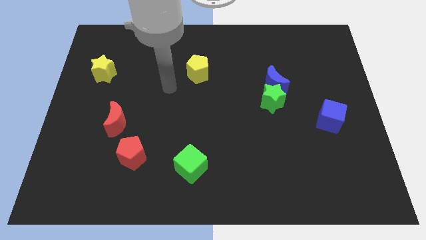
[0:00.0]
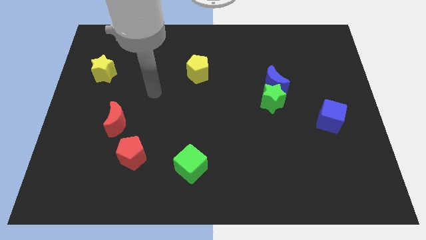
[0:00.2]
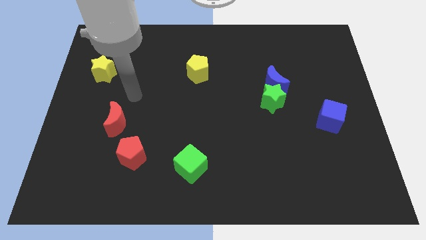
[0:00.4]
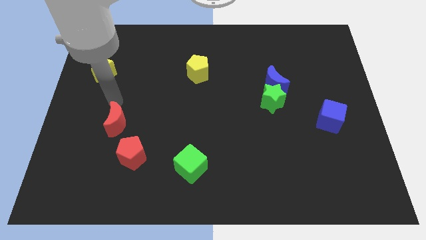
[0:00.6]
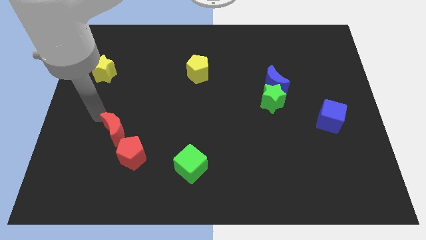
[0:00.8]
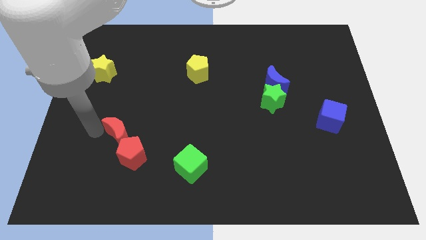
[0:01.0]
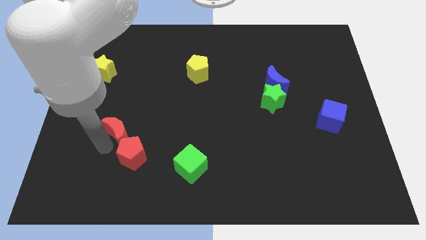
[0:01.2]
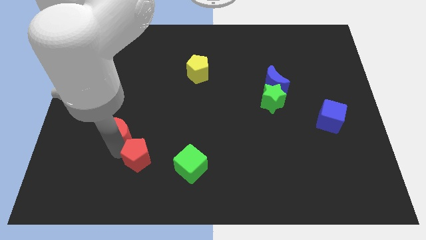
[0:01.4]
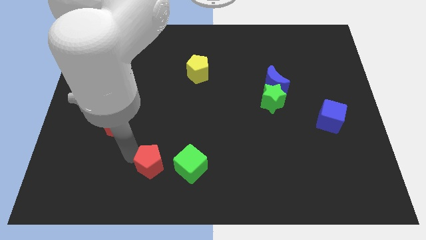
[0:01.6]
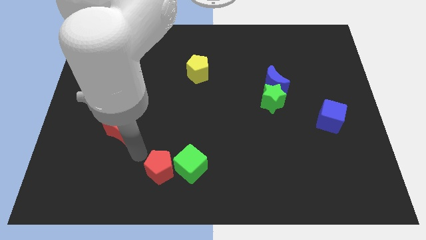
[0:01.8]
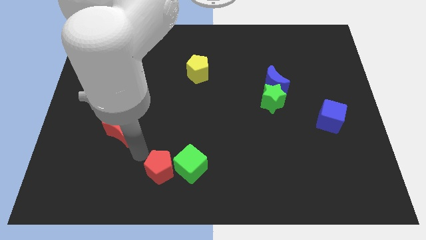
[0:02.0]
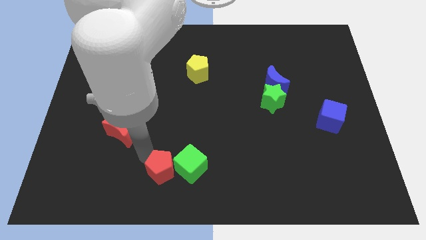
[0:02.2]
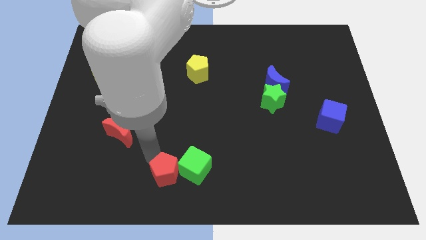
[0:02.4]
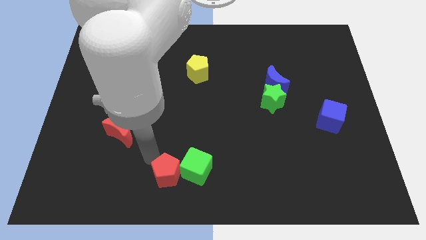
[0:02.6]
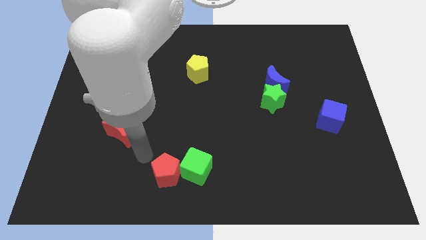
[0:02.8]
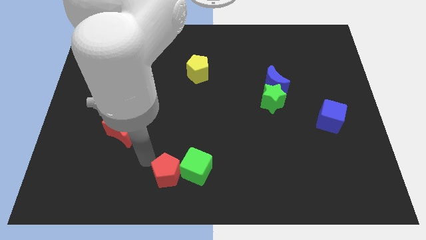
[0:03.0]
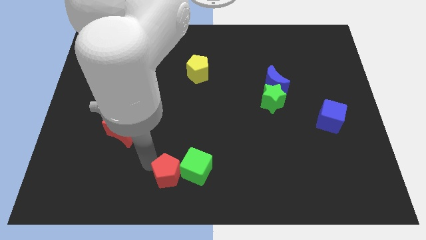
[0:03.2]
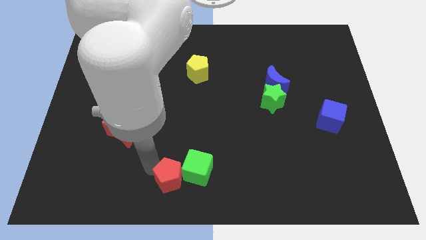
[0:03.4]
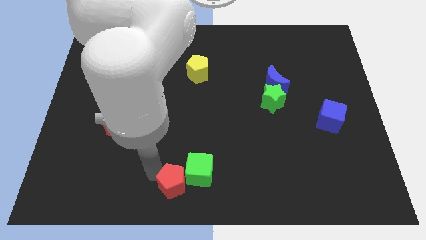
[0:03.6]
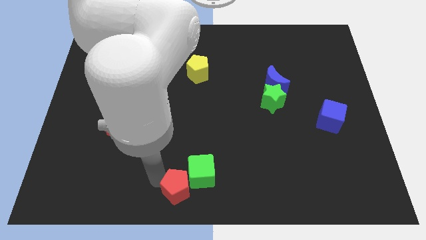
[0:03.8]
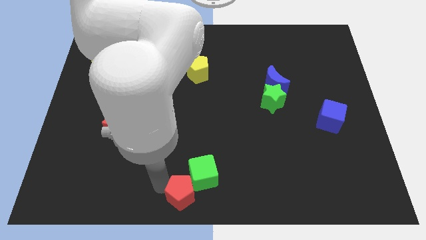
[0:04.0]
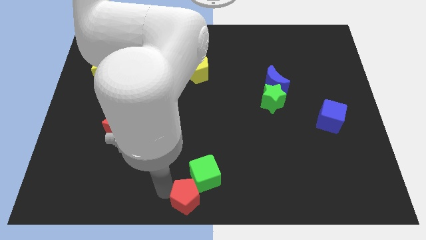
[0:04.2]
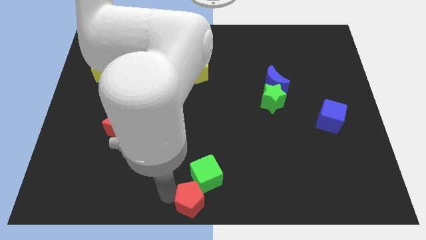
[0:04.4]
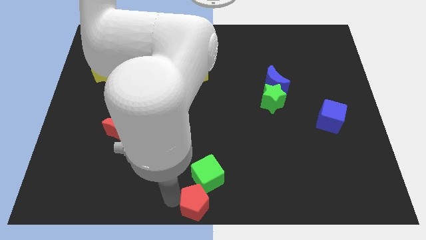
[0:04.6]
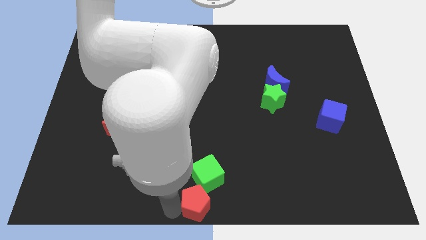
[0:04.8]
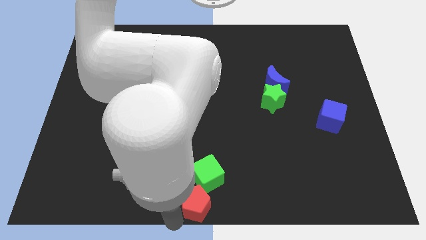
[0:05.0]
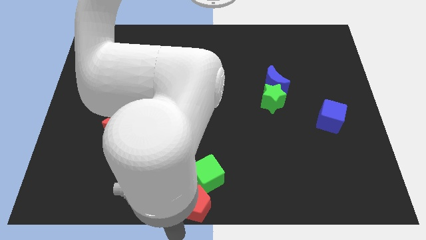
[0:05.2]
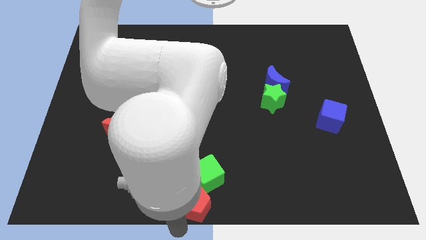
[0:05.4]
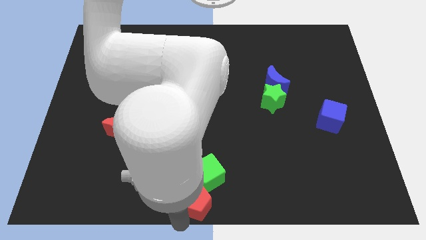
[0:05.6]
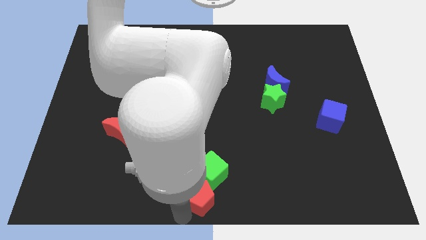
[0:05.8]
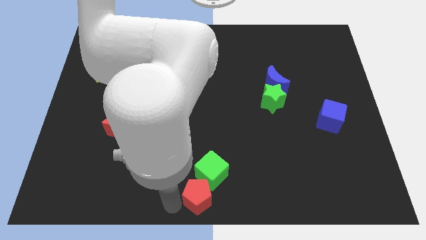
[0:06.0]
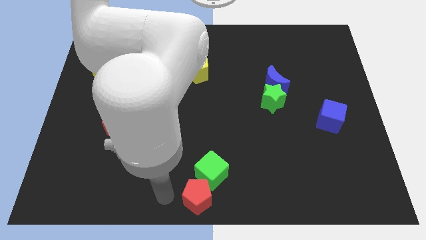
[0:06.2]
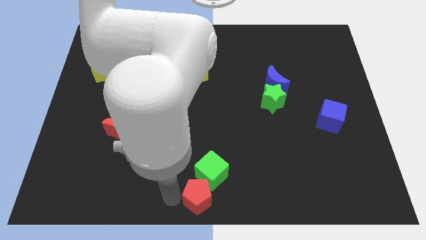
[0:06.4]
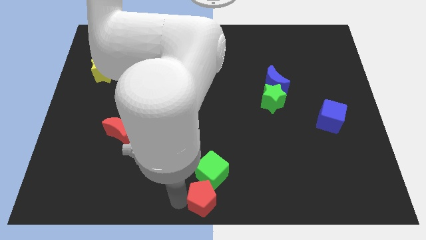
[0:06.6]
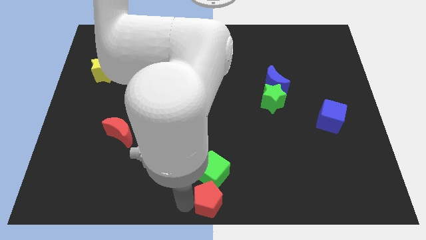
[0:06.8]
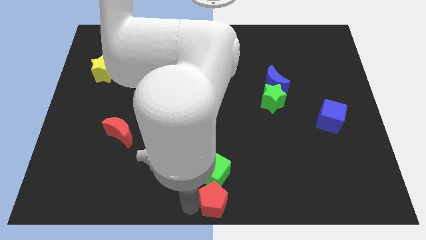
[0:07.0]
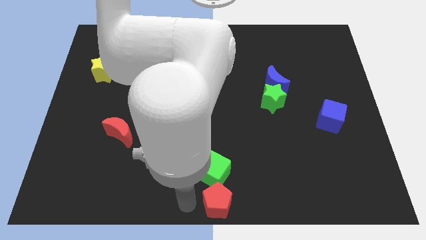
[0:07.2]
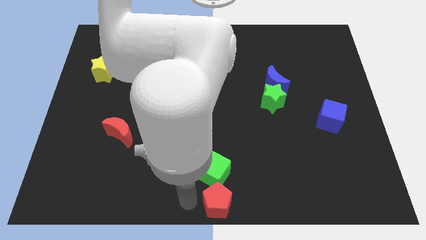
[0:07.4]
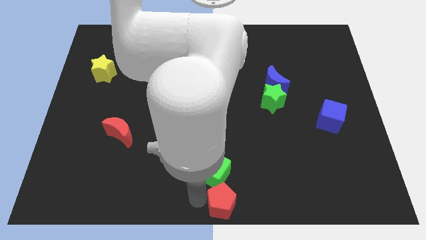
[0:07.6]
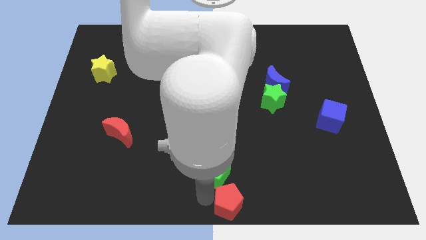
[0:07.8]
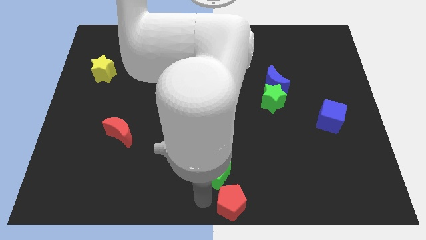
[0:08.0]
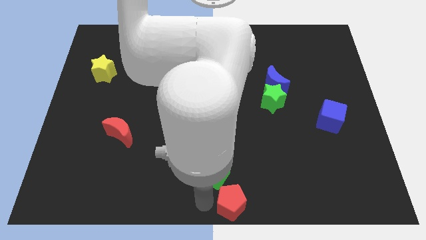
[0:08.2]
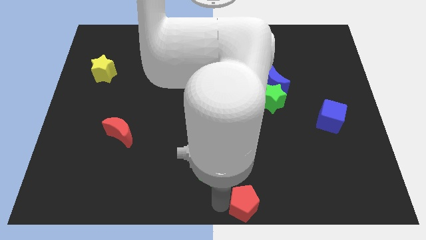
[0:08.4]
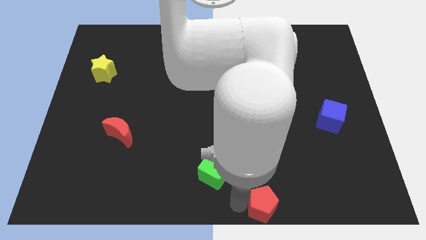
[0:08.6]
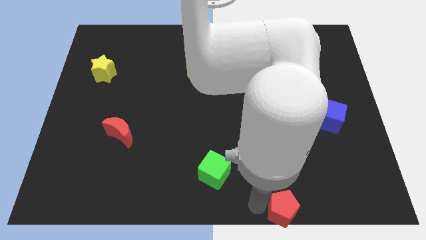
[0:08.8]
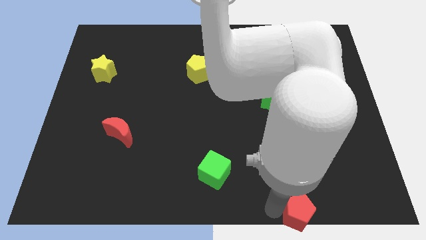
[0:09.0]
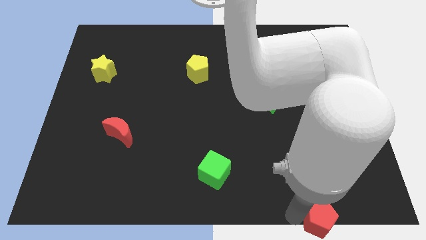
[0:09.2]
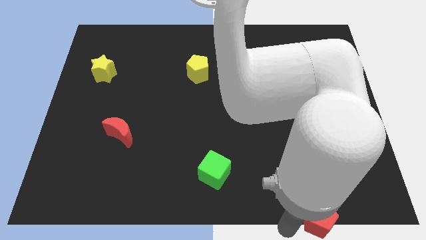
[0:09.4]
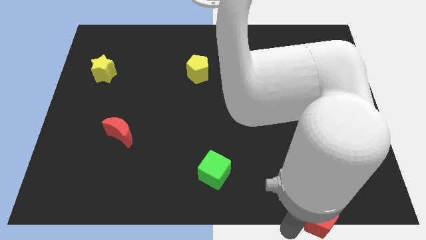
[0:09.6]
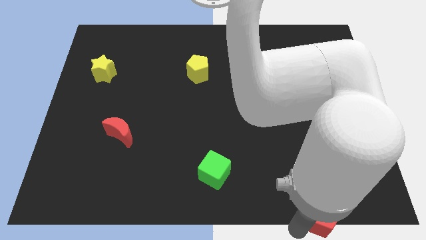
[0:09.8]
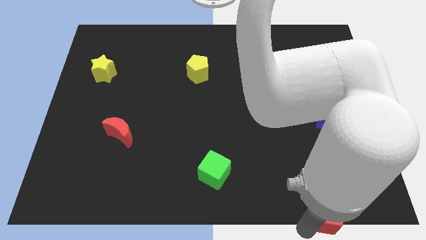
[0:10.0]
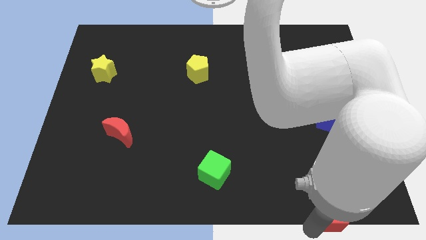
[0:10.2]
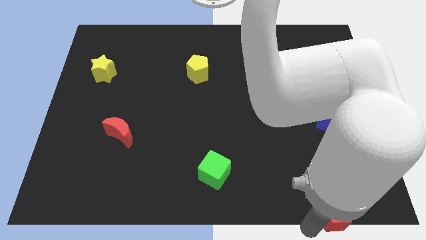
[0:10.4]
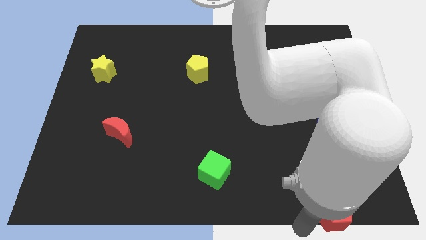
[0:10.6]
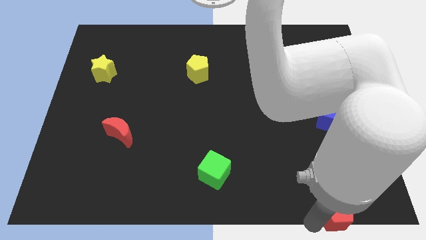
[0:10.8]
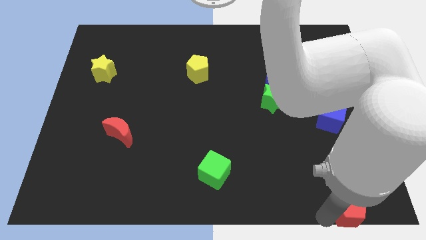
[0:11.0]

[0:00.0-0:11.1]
slide the red pentagon to the bottom right of the board

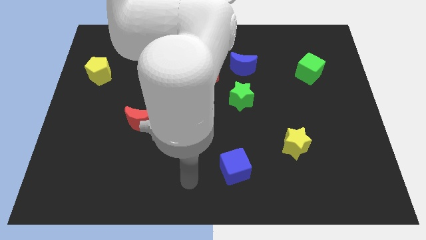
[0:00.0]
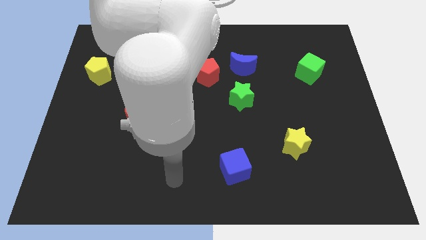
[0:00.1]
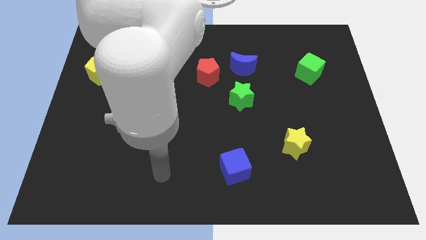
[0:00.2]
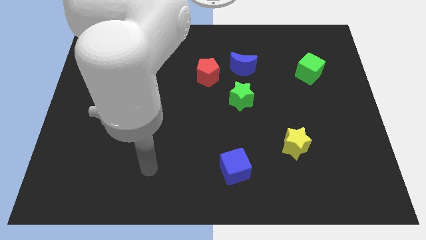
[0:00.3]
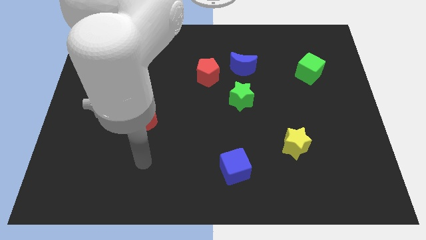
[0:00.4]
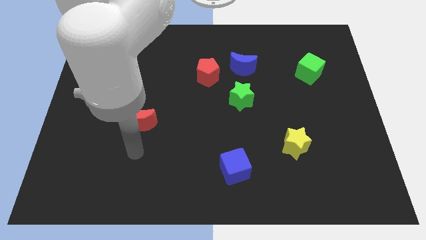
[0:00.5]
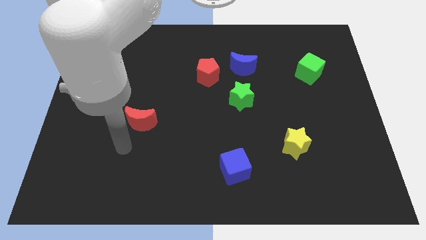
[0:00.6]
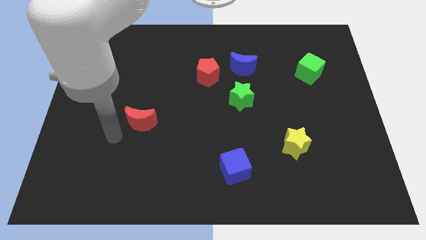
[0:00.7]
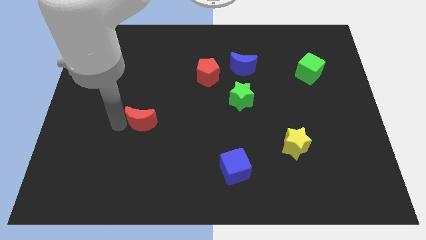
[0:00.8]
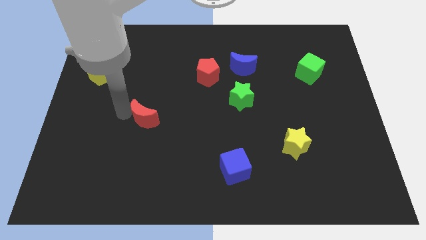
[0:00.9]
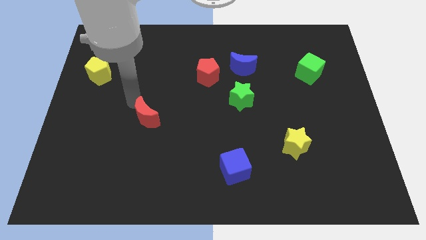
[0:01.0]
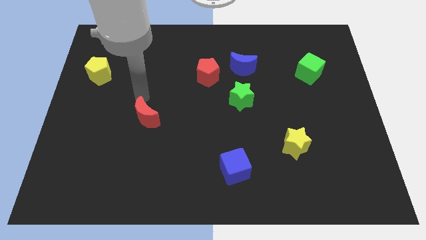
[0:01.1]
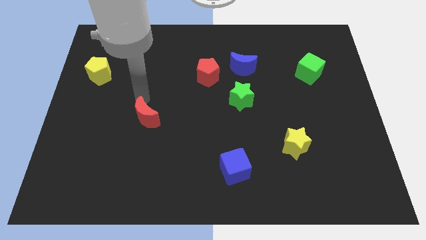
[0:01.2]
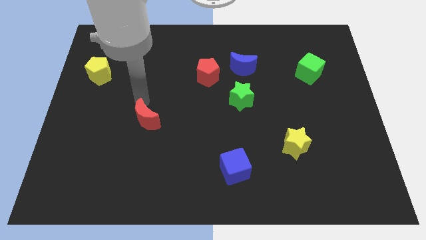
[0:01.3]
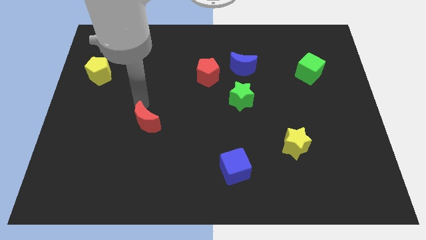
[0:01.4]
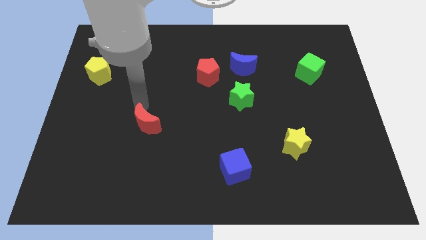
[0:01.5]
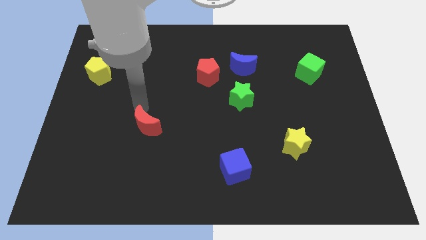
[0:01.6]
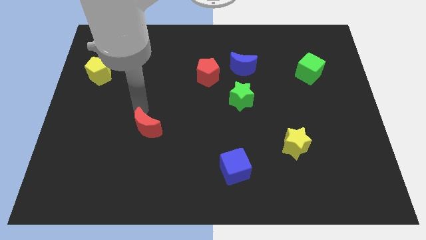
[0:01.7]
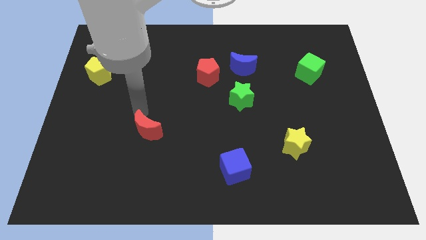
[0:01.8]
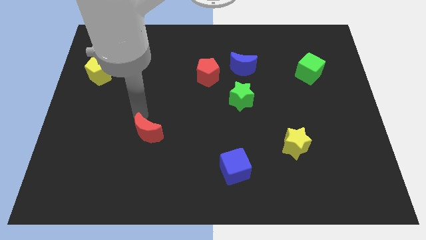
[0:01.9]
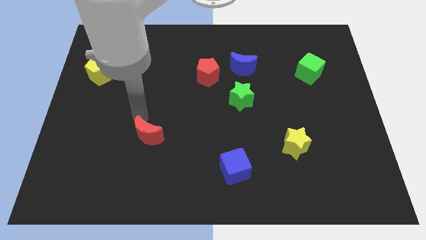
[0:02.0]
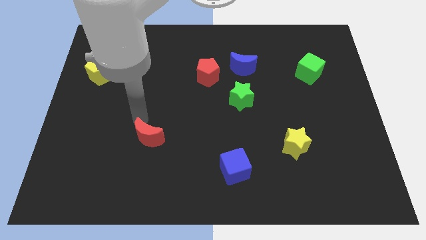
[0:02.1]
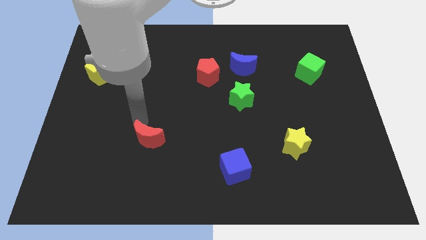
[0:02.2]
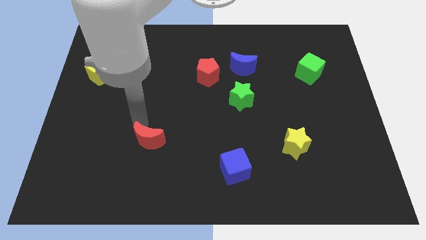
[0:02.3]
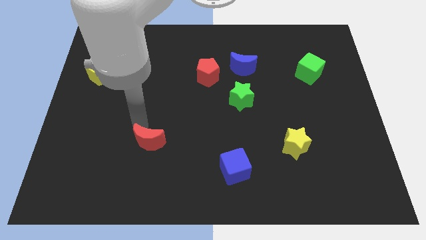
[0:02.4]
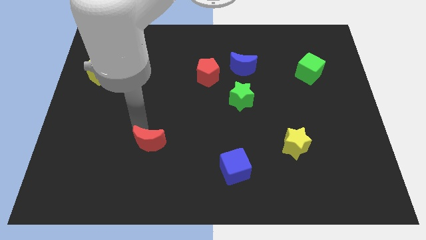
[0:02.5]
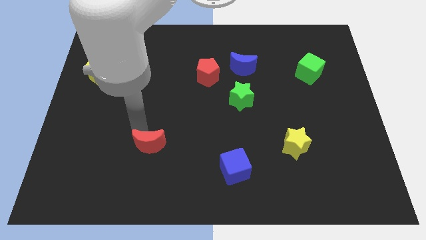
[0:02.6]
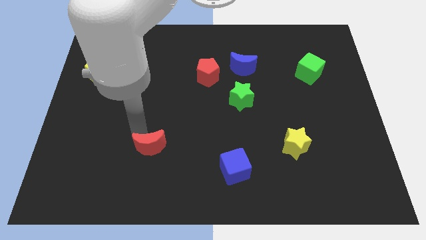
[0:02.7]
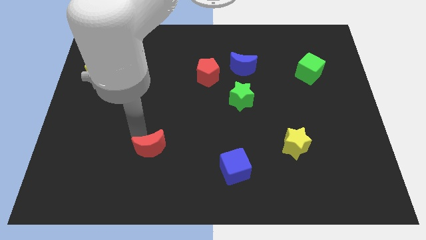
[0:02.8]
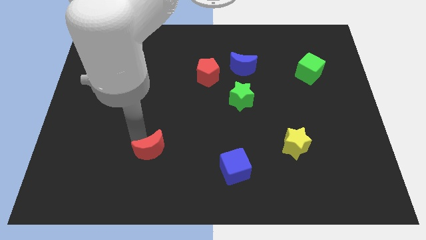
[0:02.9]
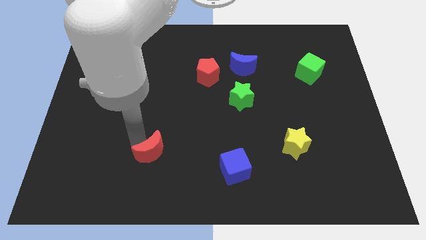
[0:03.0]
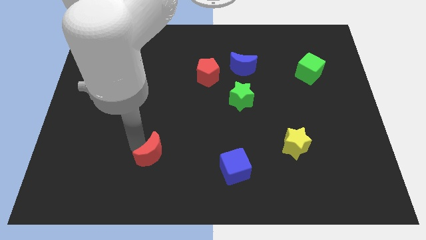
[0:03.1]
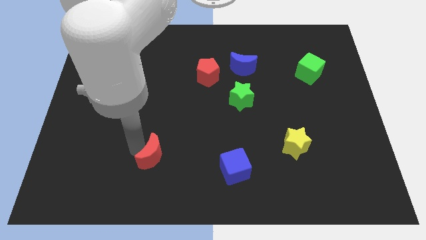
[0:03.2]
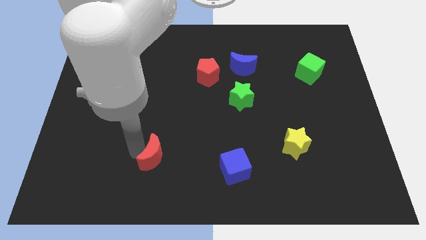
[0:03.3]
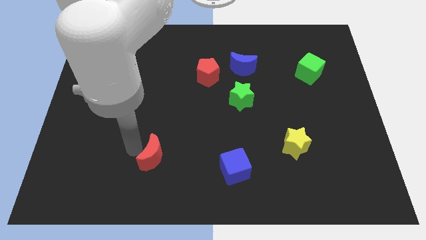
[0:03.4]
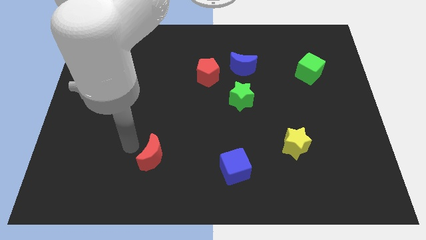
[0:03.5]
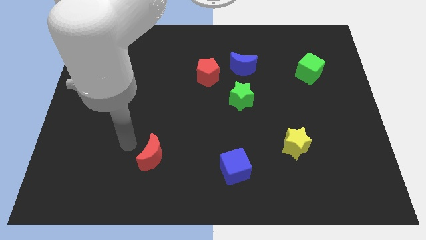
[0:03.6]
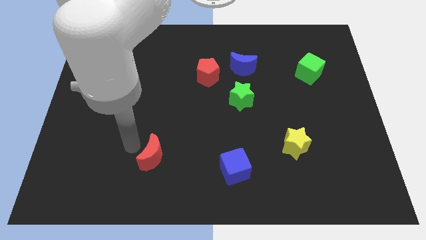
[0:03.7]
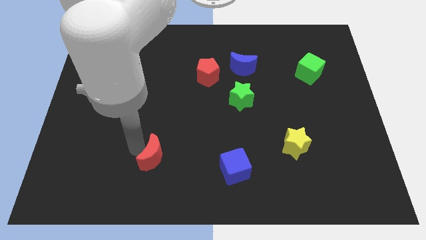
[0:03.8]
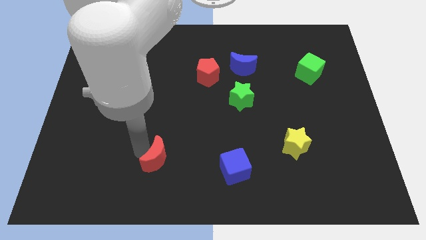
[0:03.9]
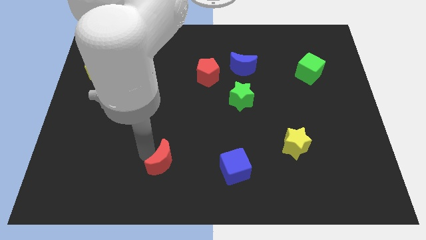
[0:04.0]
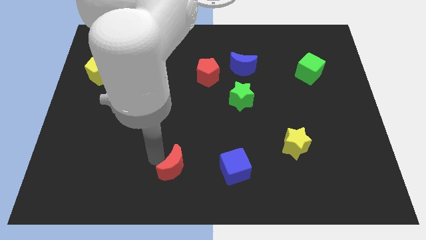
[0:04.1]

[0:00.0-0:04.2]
move the red moon to the bottom
